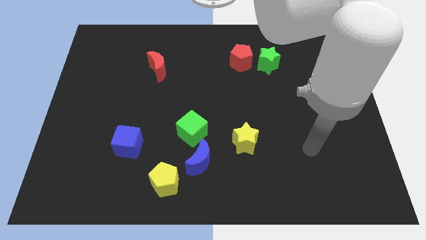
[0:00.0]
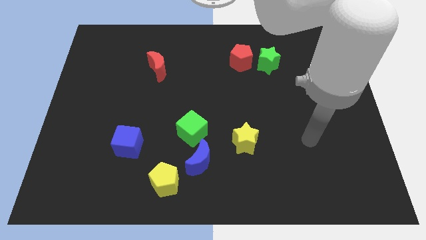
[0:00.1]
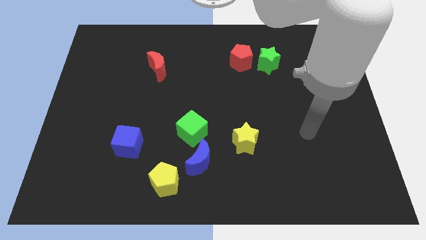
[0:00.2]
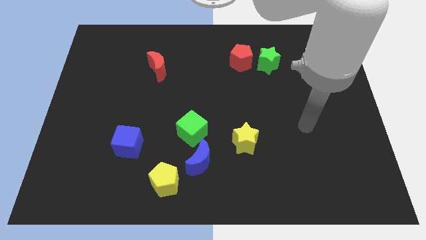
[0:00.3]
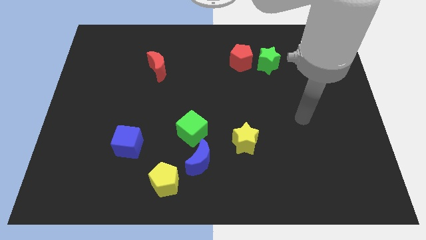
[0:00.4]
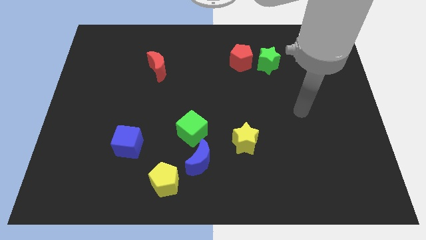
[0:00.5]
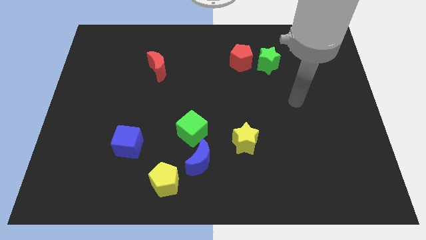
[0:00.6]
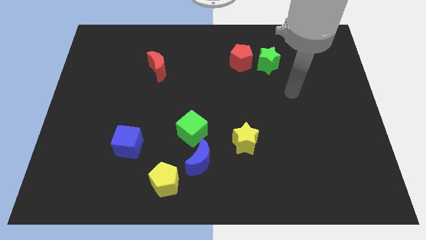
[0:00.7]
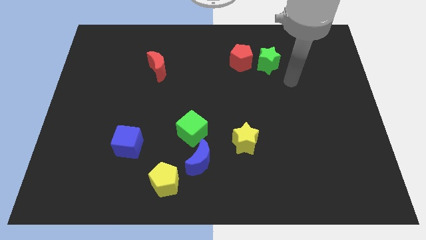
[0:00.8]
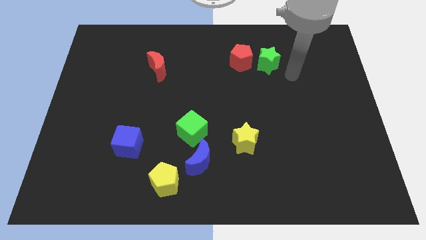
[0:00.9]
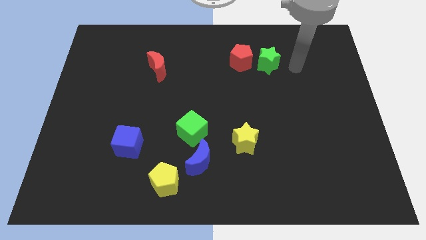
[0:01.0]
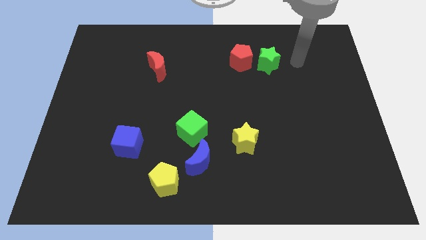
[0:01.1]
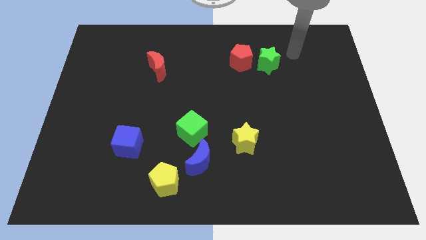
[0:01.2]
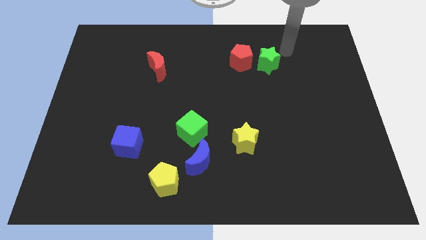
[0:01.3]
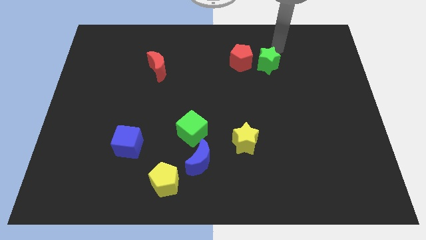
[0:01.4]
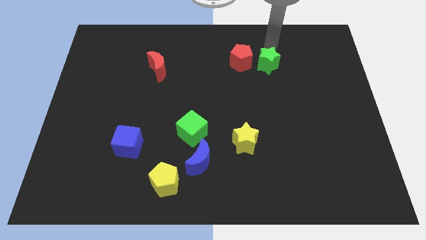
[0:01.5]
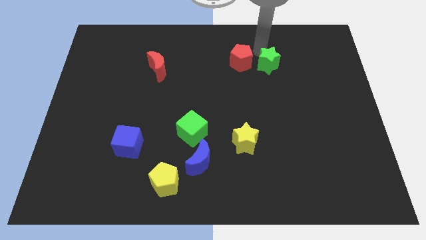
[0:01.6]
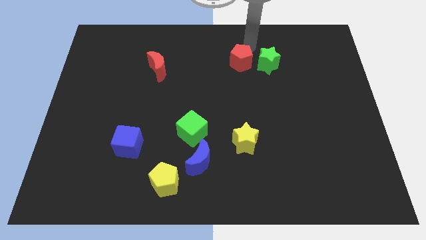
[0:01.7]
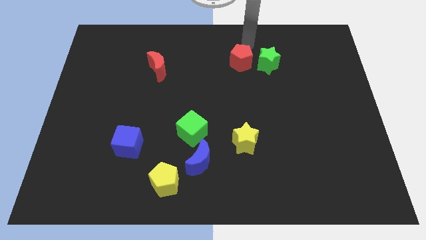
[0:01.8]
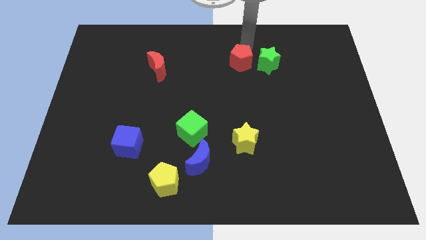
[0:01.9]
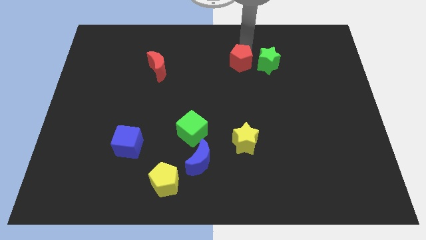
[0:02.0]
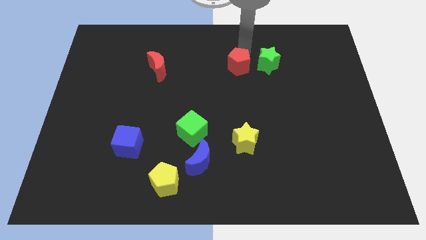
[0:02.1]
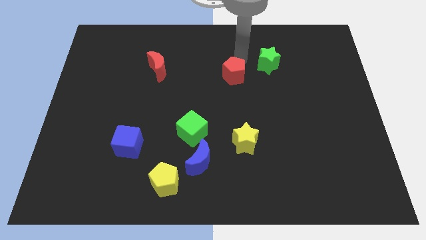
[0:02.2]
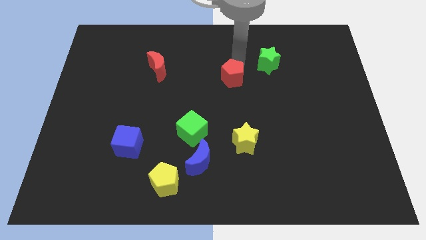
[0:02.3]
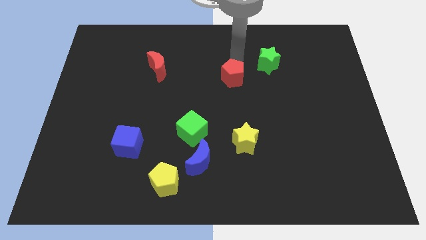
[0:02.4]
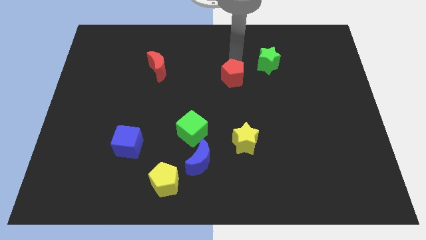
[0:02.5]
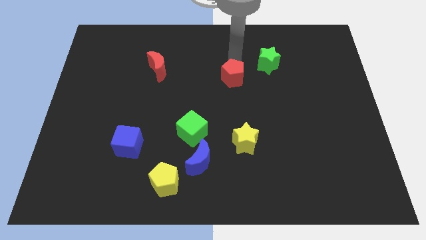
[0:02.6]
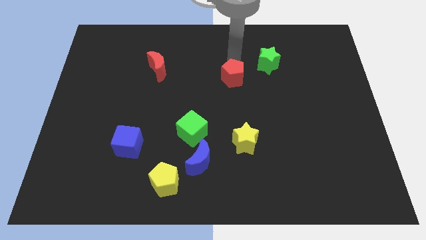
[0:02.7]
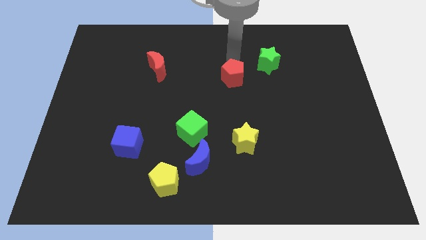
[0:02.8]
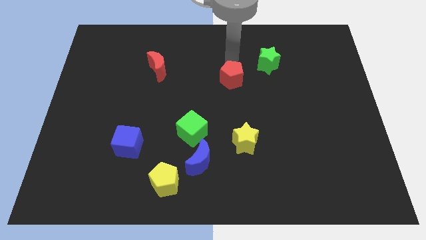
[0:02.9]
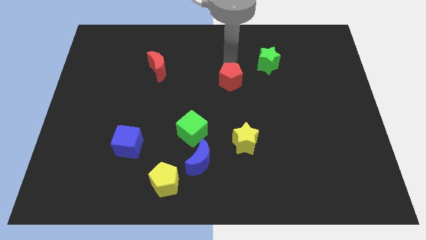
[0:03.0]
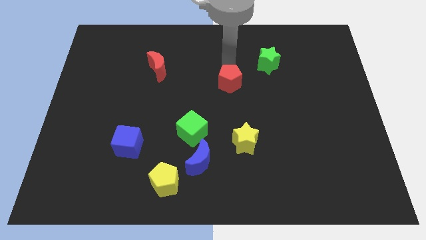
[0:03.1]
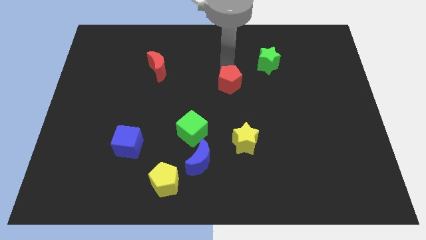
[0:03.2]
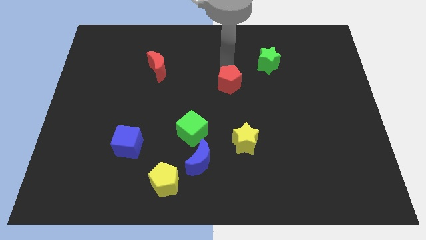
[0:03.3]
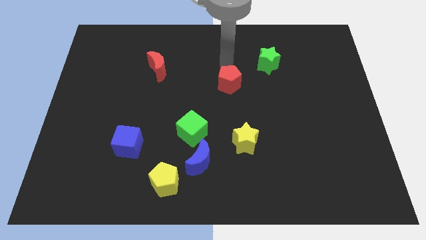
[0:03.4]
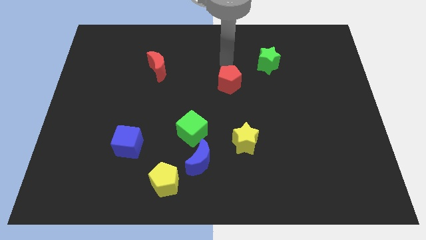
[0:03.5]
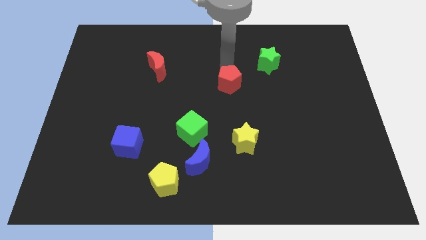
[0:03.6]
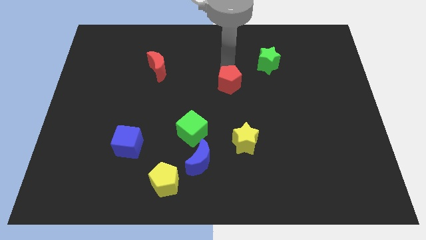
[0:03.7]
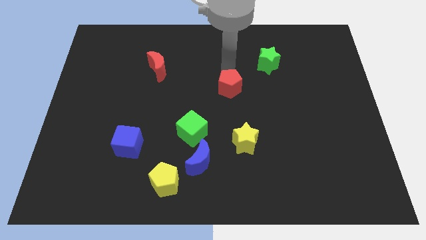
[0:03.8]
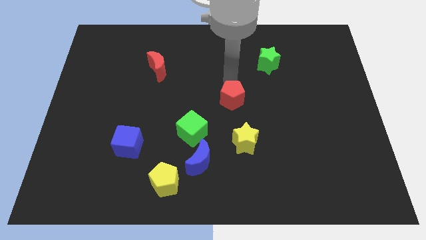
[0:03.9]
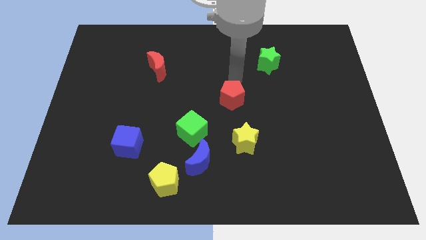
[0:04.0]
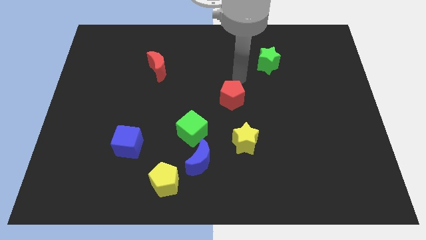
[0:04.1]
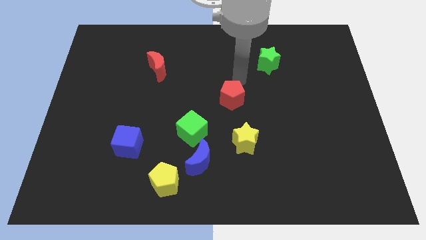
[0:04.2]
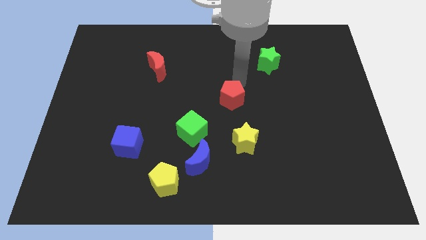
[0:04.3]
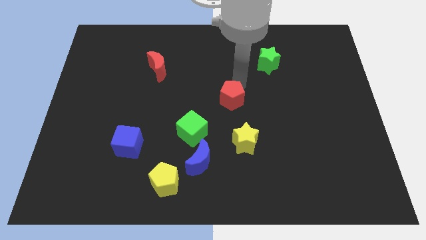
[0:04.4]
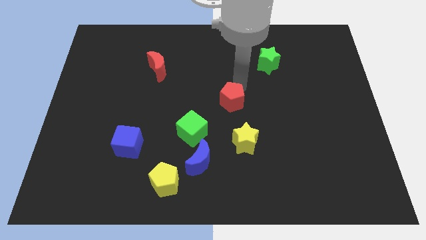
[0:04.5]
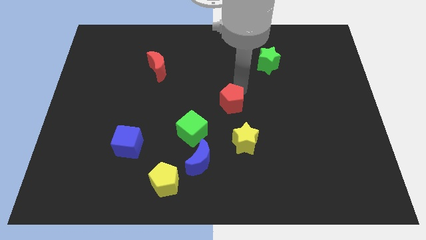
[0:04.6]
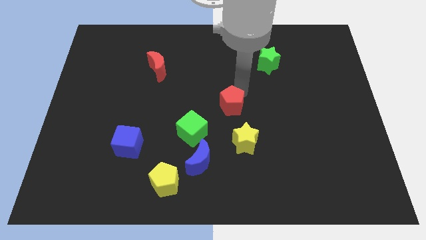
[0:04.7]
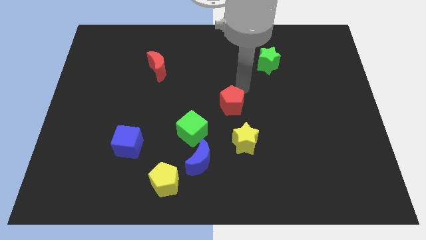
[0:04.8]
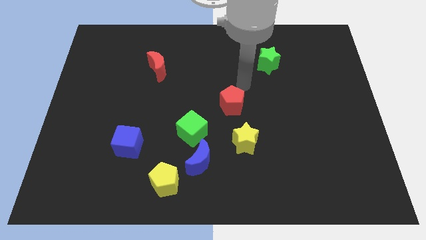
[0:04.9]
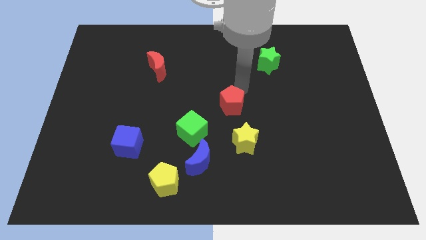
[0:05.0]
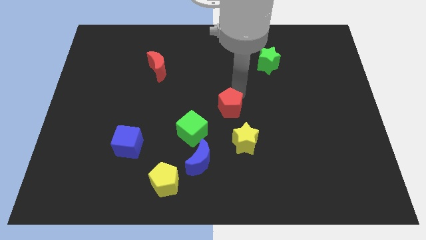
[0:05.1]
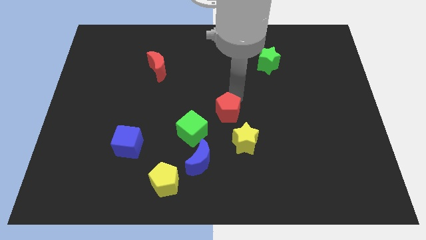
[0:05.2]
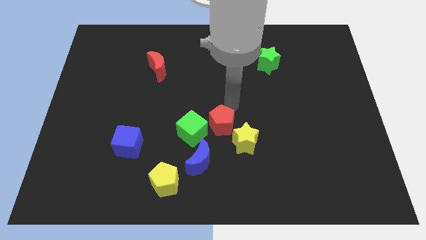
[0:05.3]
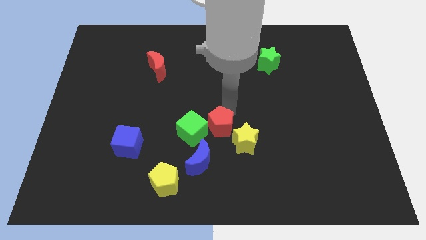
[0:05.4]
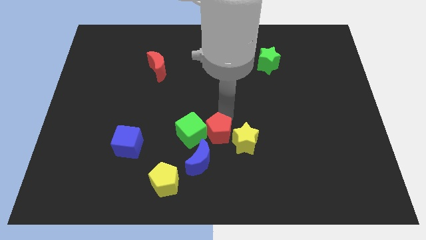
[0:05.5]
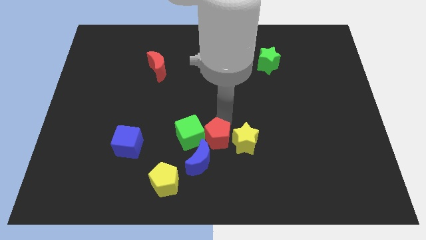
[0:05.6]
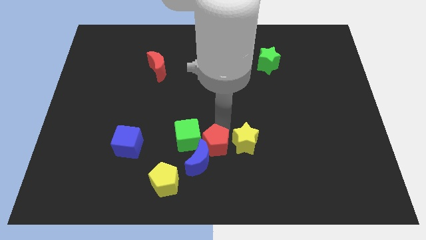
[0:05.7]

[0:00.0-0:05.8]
push the red pentagon towards the blue moon

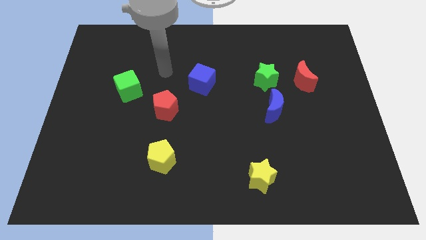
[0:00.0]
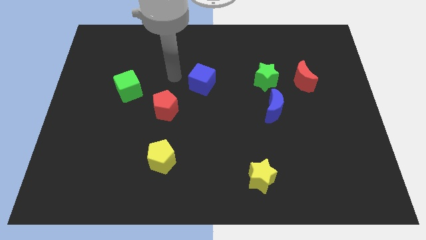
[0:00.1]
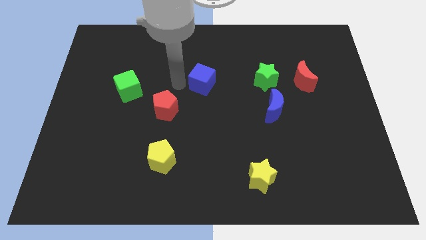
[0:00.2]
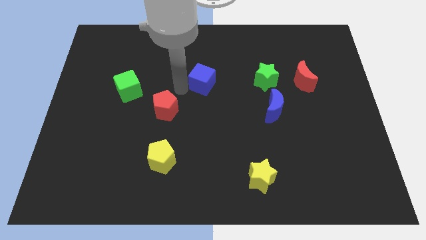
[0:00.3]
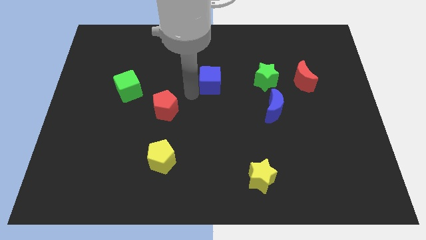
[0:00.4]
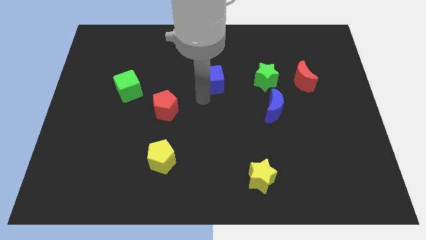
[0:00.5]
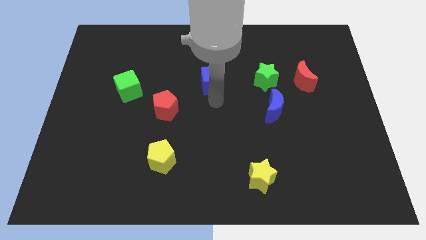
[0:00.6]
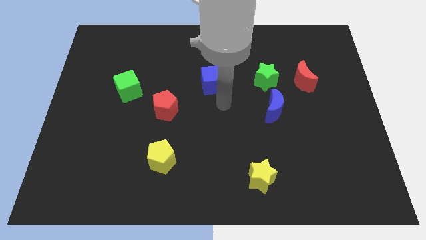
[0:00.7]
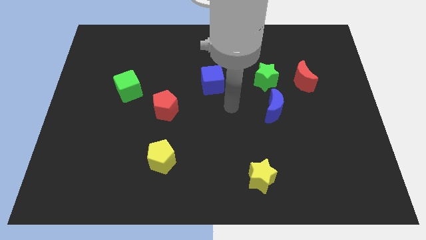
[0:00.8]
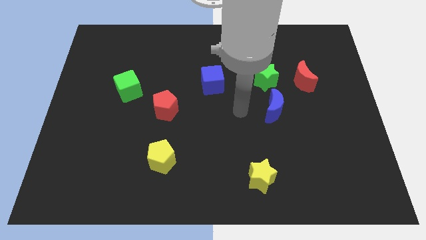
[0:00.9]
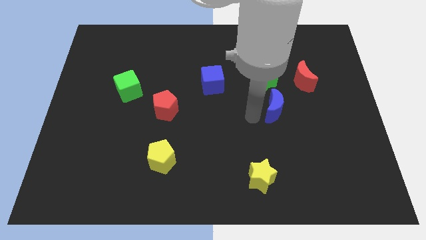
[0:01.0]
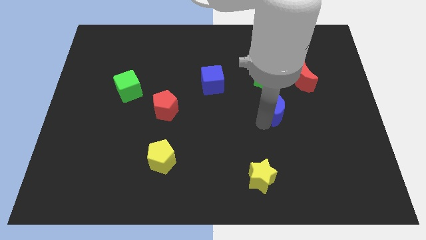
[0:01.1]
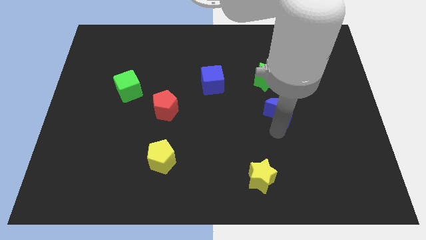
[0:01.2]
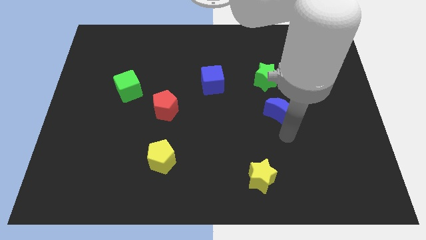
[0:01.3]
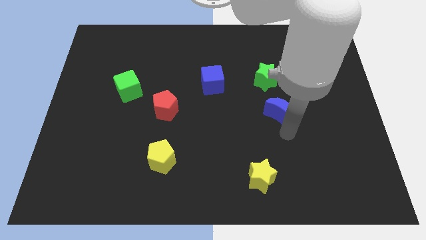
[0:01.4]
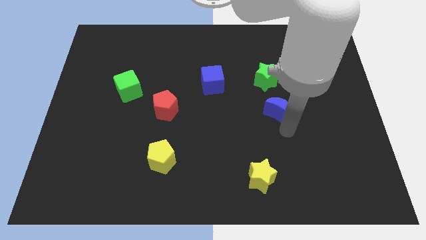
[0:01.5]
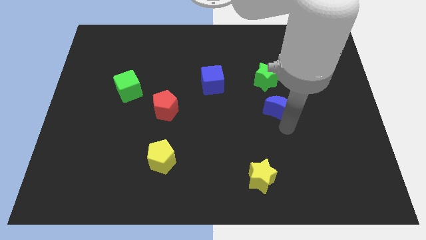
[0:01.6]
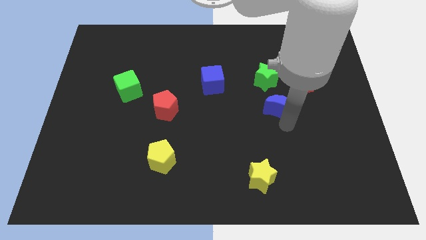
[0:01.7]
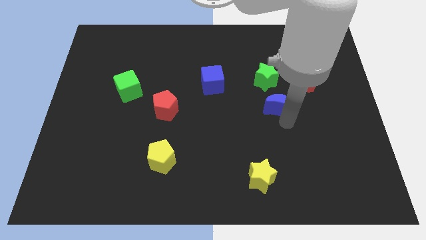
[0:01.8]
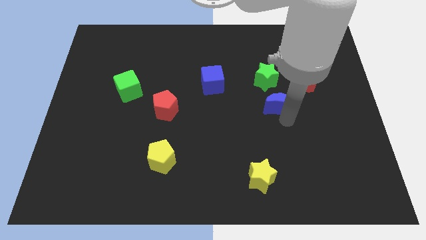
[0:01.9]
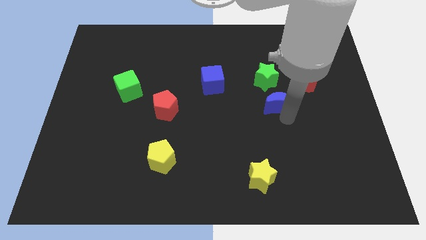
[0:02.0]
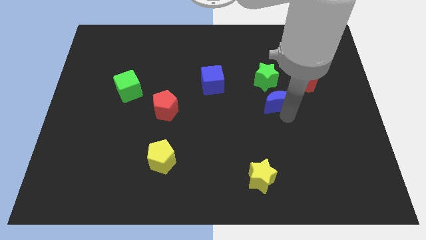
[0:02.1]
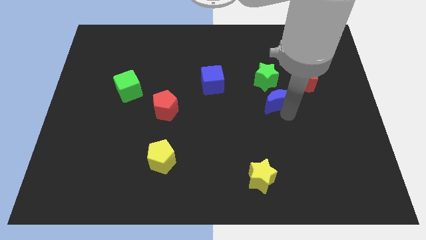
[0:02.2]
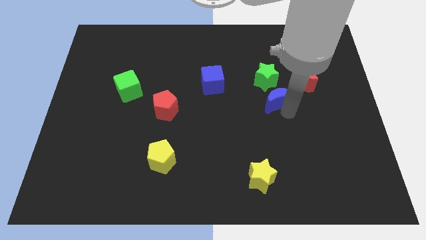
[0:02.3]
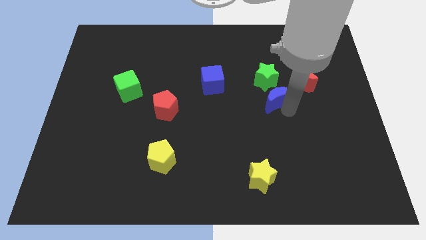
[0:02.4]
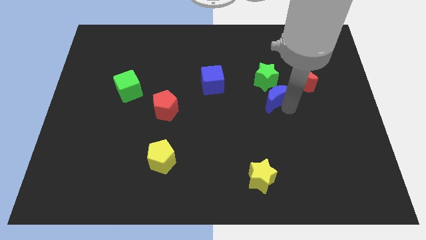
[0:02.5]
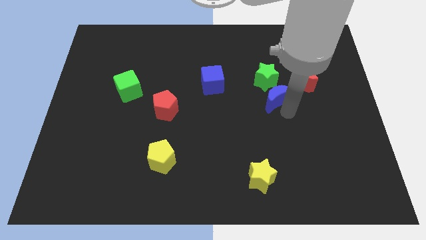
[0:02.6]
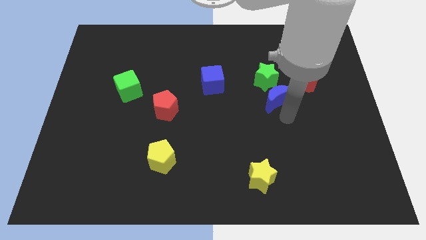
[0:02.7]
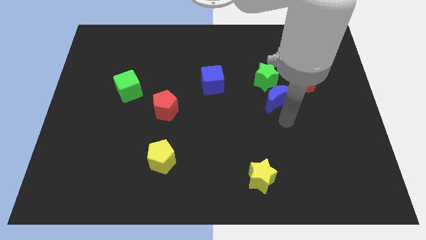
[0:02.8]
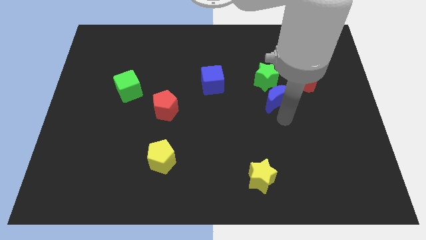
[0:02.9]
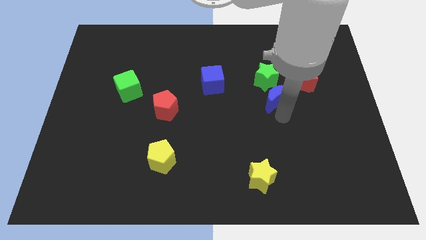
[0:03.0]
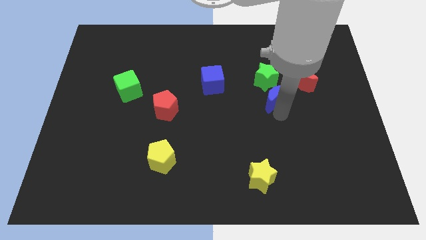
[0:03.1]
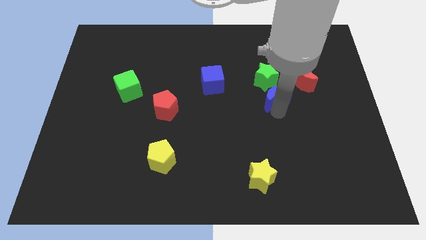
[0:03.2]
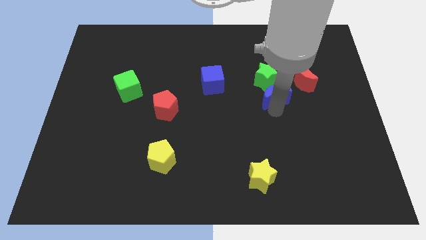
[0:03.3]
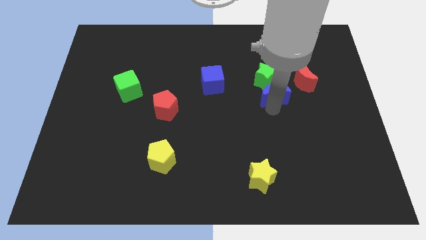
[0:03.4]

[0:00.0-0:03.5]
push the blue moon towards the green star
